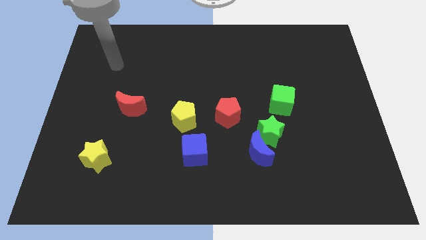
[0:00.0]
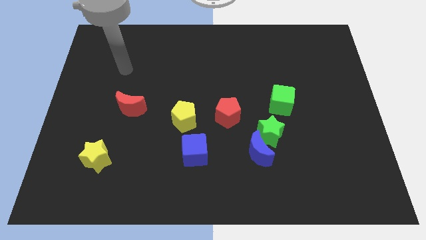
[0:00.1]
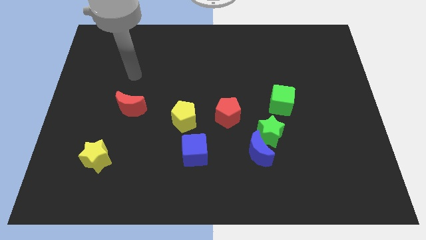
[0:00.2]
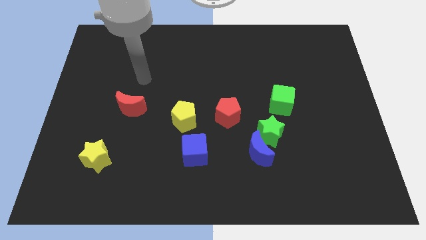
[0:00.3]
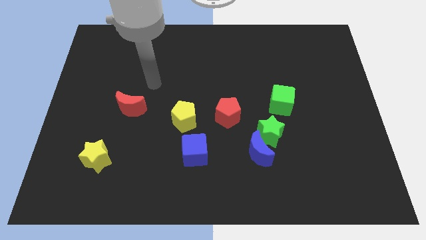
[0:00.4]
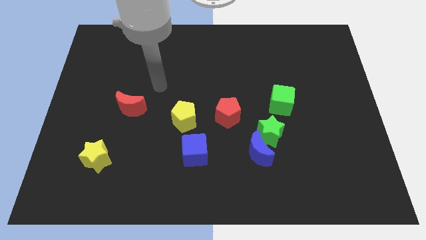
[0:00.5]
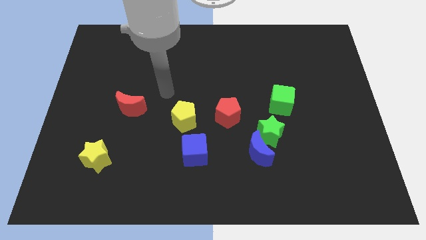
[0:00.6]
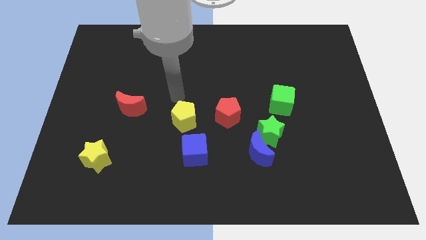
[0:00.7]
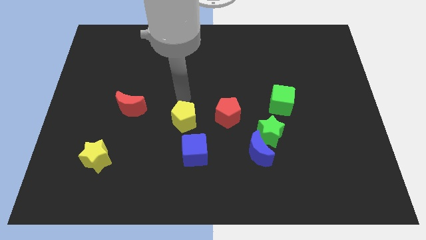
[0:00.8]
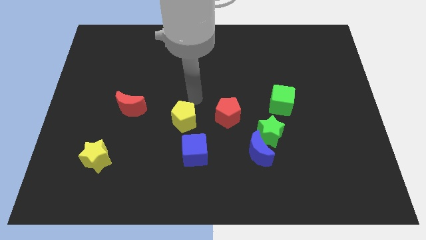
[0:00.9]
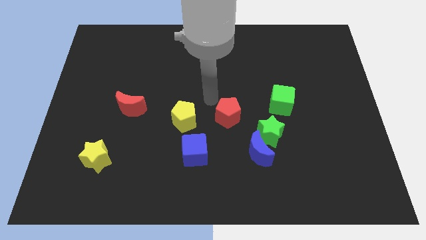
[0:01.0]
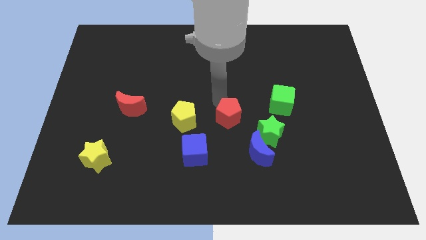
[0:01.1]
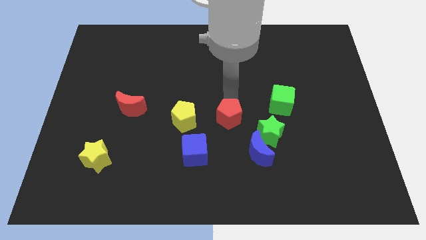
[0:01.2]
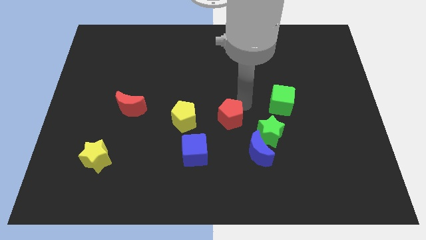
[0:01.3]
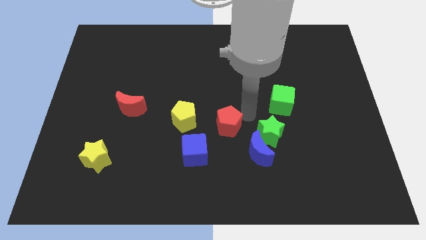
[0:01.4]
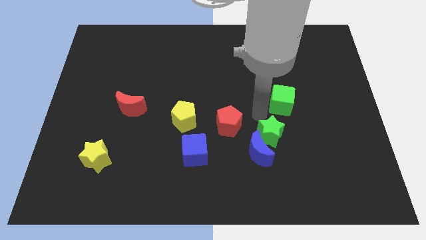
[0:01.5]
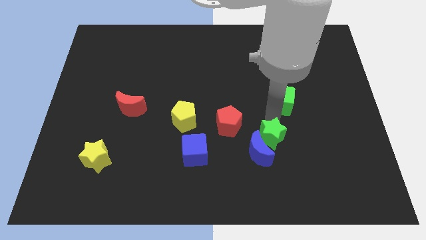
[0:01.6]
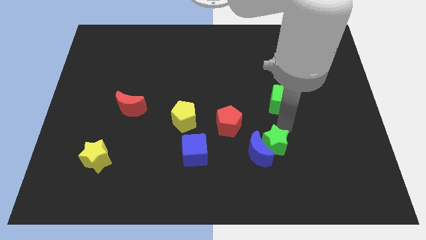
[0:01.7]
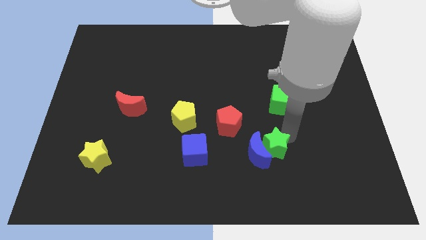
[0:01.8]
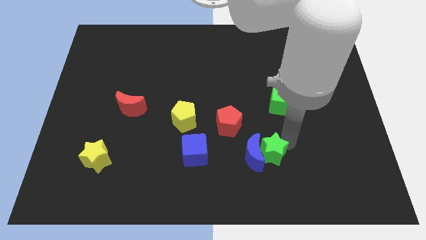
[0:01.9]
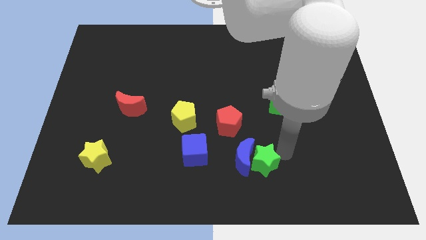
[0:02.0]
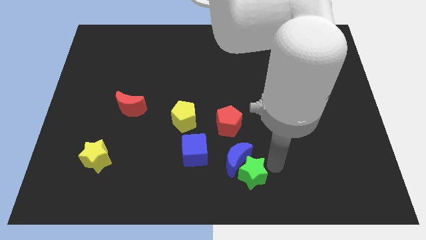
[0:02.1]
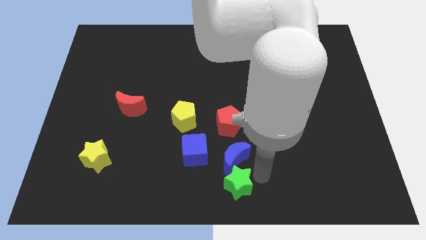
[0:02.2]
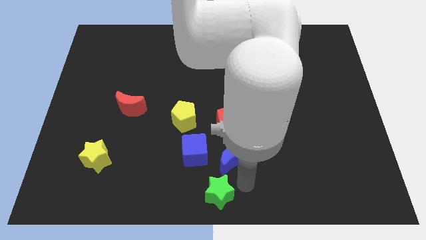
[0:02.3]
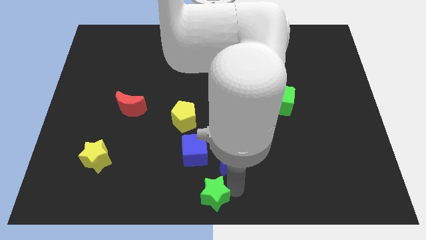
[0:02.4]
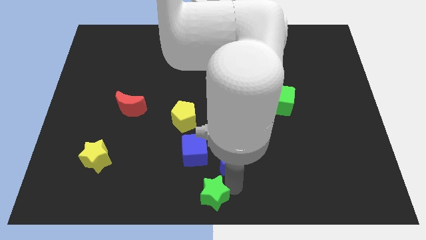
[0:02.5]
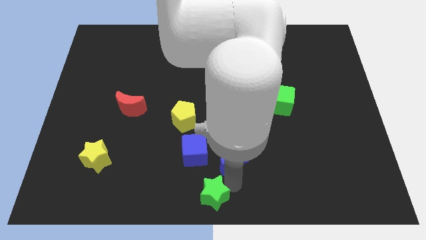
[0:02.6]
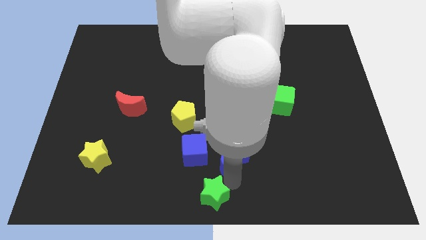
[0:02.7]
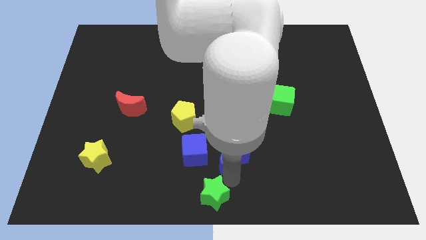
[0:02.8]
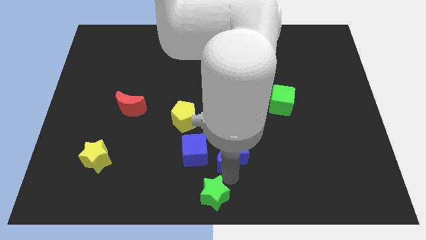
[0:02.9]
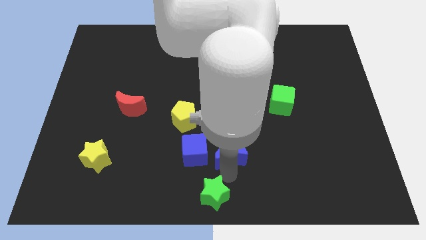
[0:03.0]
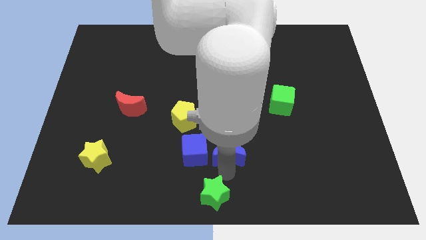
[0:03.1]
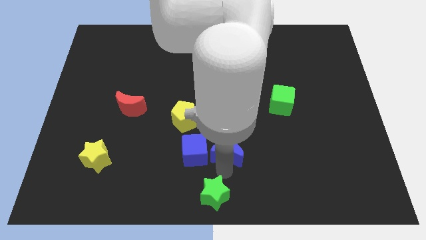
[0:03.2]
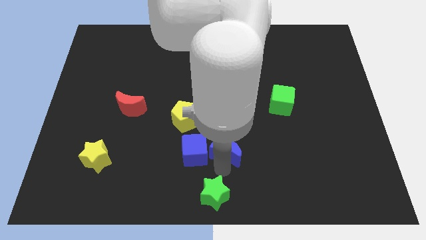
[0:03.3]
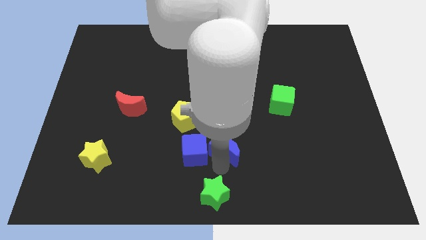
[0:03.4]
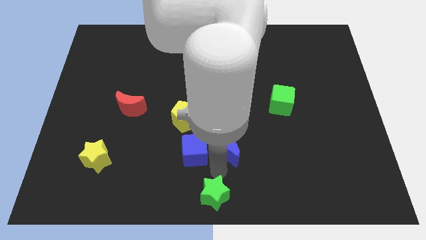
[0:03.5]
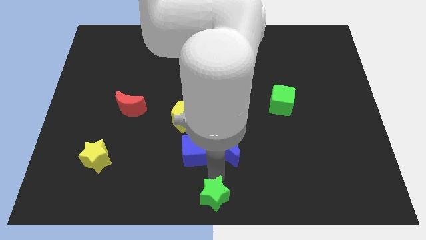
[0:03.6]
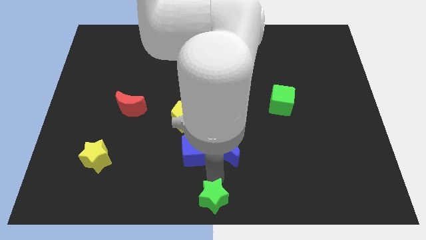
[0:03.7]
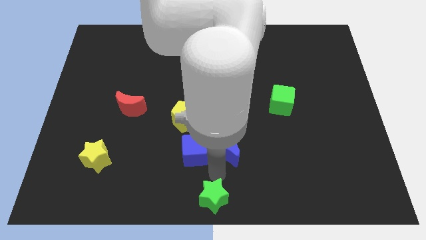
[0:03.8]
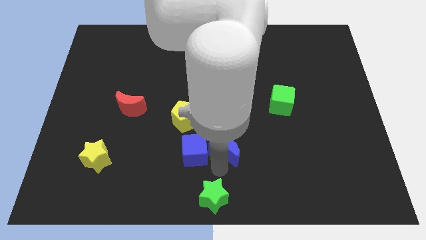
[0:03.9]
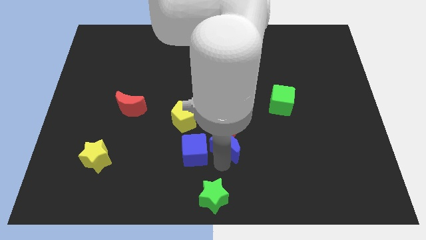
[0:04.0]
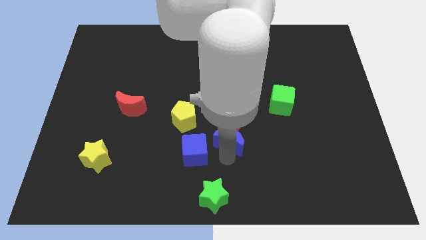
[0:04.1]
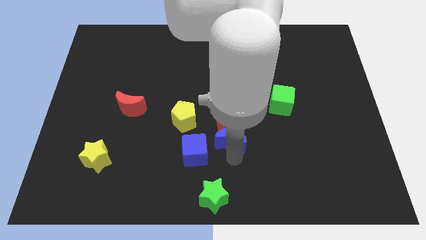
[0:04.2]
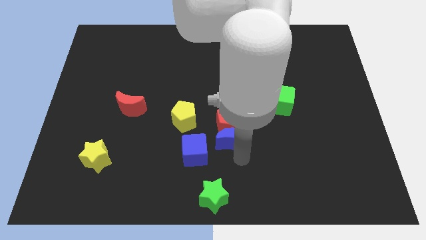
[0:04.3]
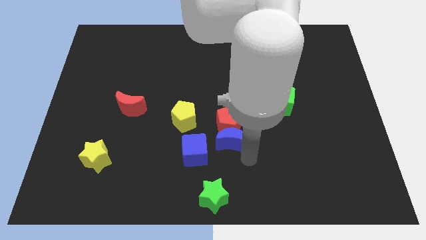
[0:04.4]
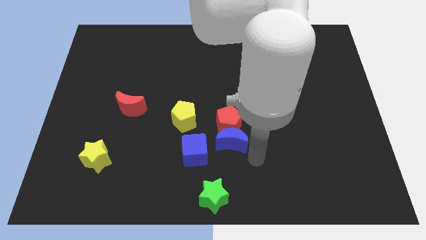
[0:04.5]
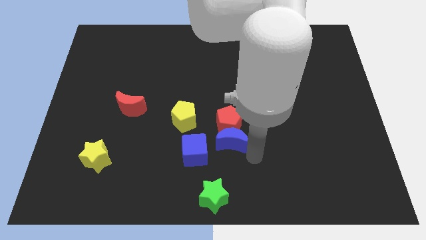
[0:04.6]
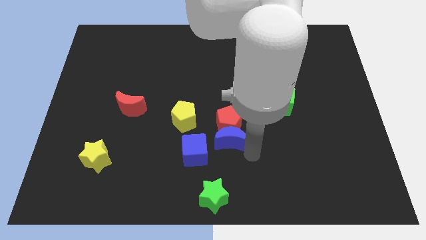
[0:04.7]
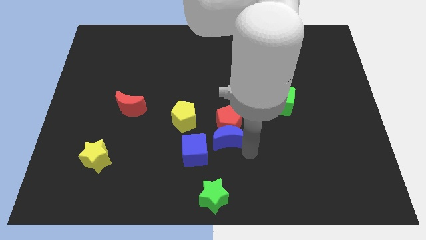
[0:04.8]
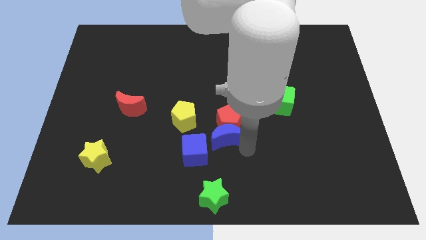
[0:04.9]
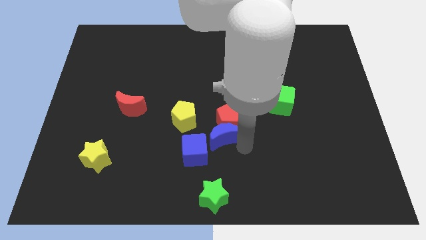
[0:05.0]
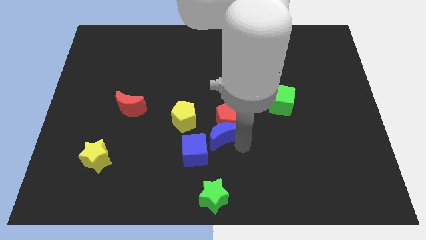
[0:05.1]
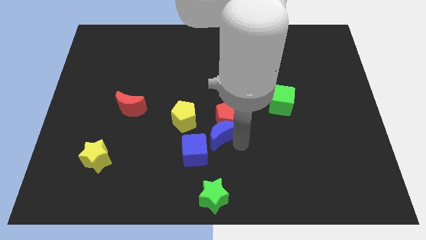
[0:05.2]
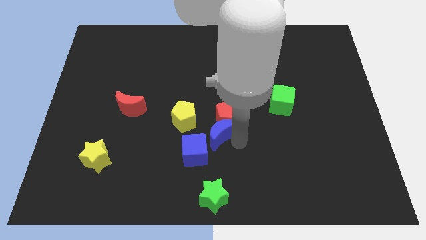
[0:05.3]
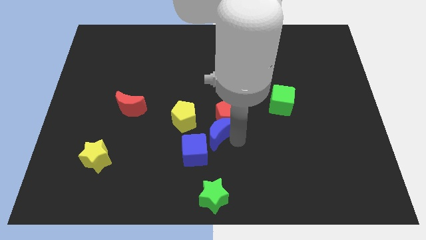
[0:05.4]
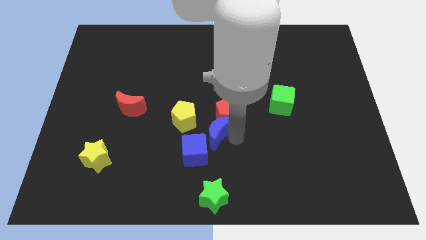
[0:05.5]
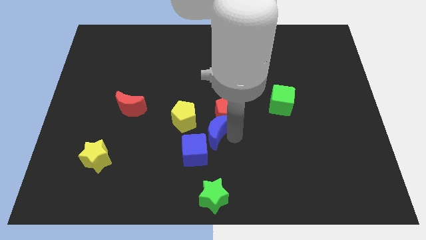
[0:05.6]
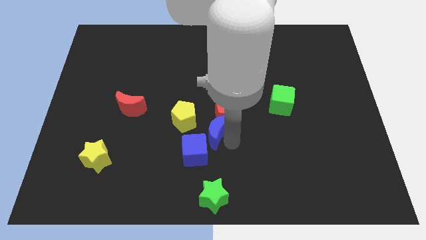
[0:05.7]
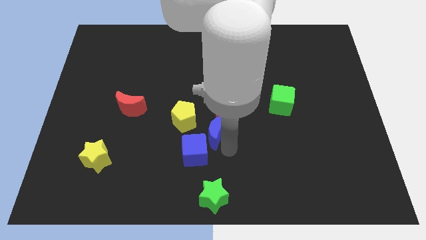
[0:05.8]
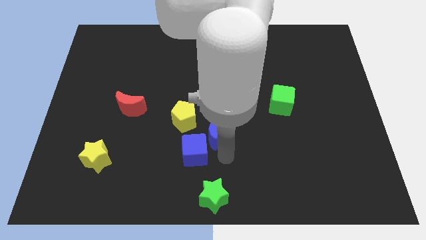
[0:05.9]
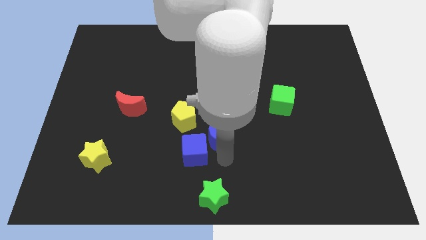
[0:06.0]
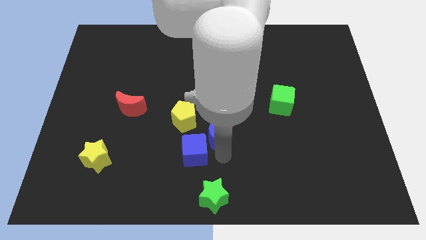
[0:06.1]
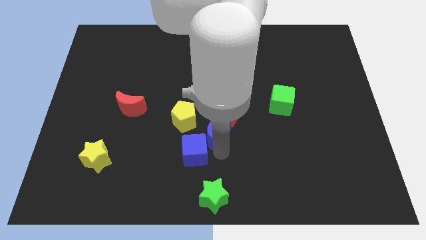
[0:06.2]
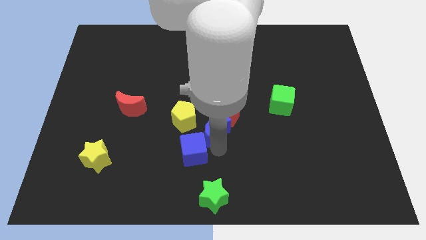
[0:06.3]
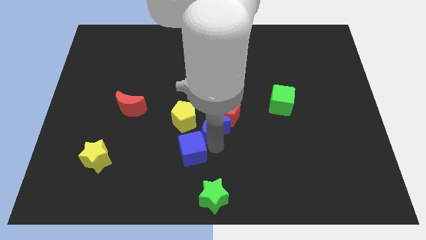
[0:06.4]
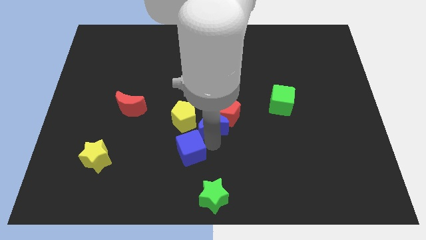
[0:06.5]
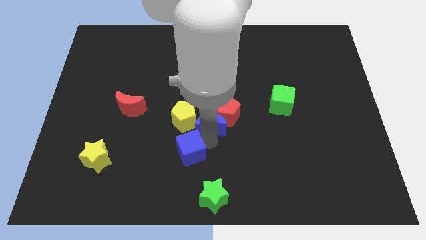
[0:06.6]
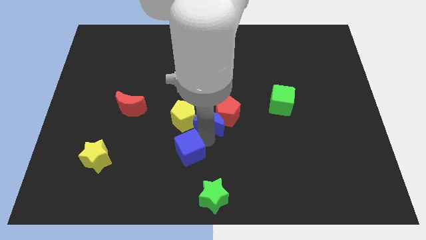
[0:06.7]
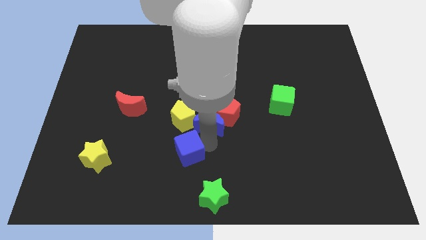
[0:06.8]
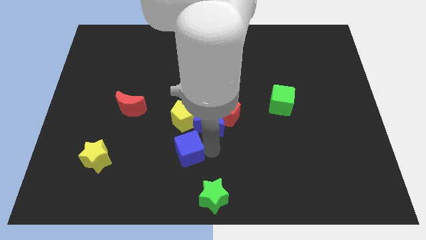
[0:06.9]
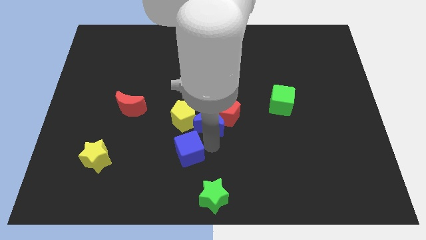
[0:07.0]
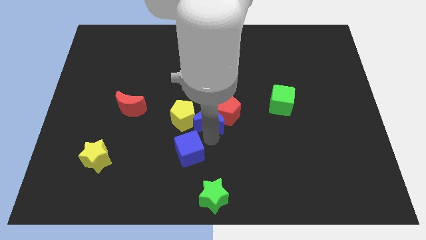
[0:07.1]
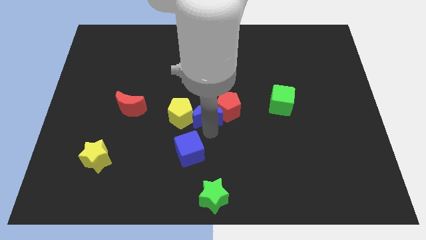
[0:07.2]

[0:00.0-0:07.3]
push the blue moon to the top right of the yellow pentagon

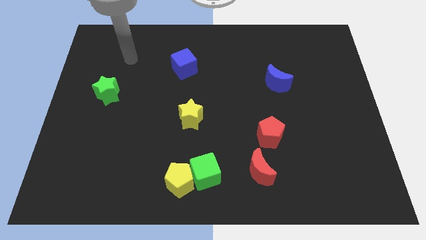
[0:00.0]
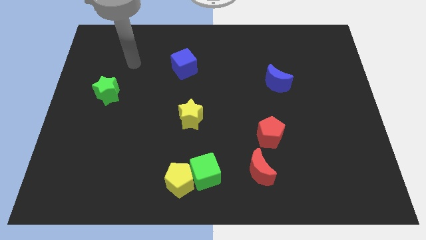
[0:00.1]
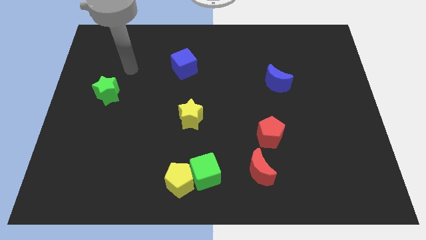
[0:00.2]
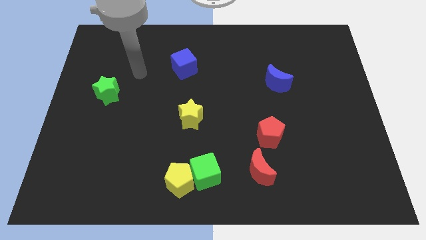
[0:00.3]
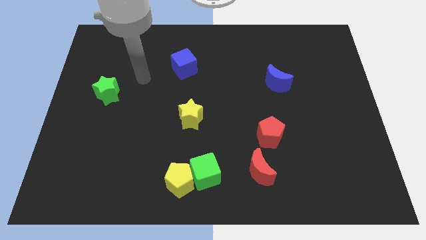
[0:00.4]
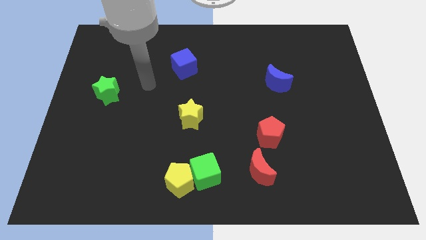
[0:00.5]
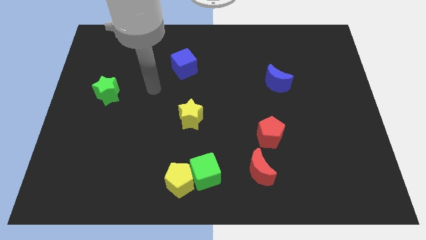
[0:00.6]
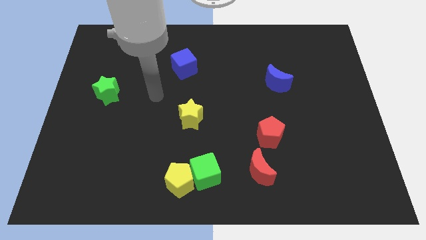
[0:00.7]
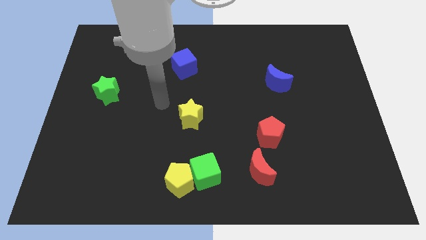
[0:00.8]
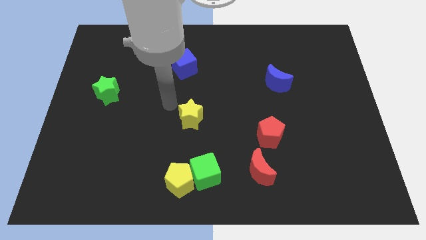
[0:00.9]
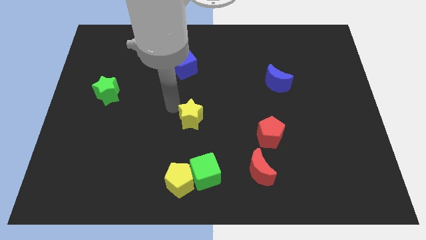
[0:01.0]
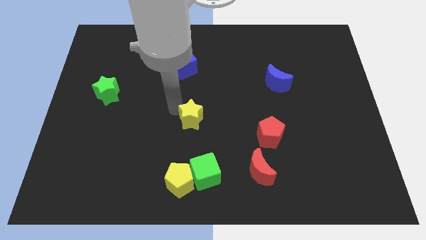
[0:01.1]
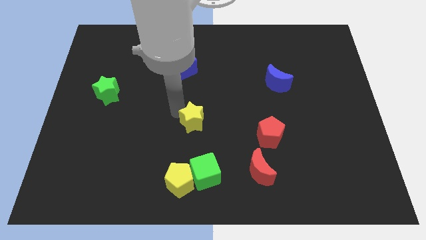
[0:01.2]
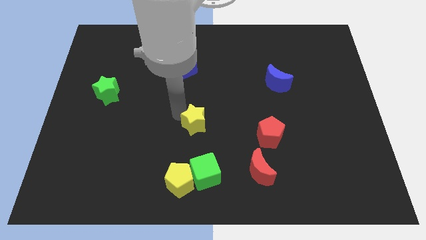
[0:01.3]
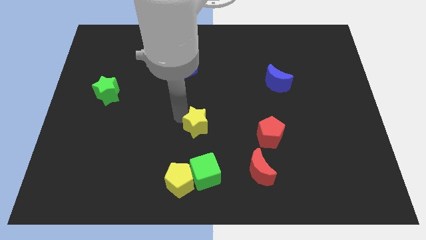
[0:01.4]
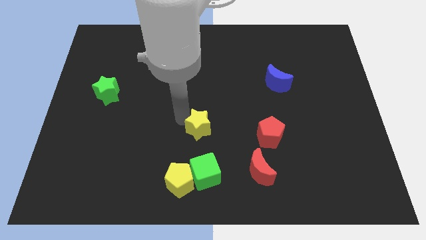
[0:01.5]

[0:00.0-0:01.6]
put the yellow star left of the red pentagon
